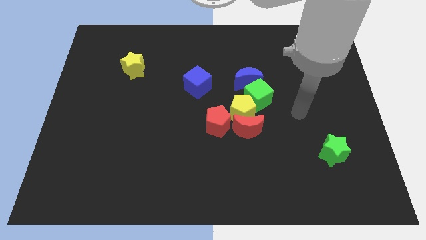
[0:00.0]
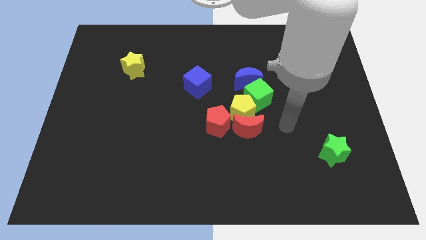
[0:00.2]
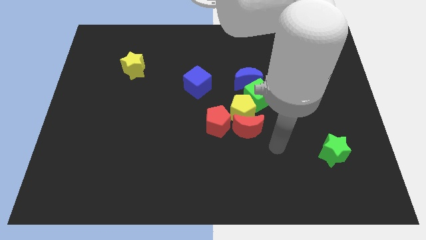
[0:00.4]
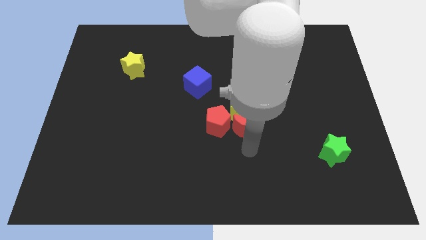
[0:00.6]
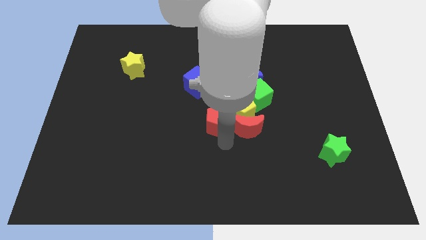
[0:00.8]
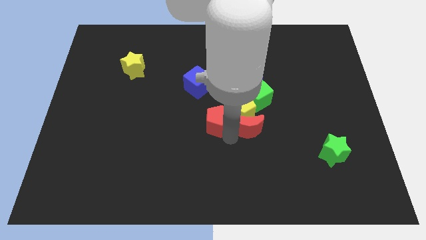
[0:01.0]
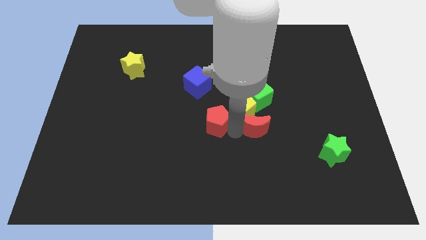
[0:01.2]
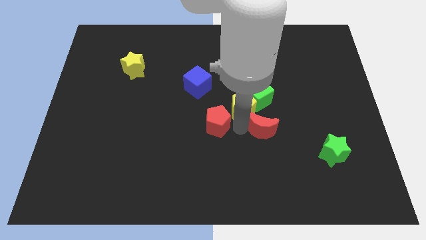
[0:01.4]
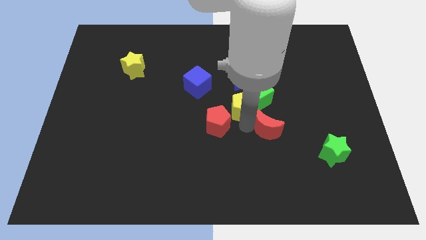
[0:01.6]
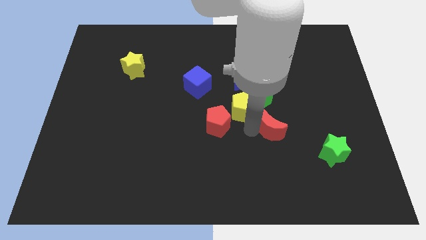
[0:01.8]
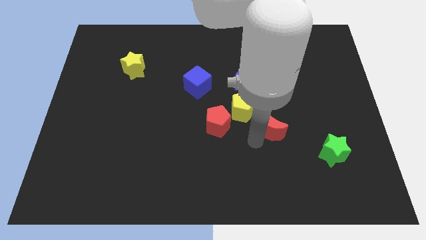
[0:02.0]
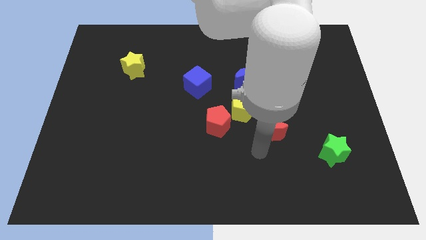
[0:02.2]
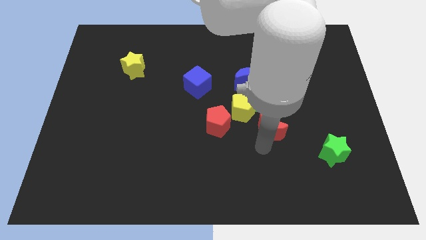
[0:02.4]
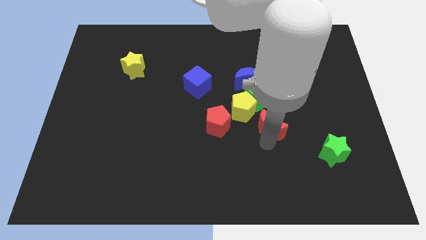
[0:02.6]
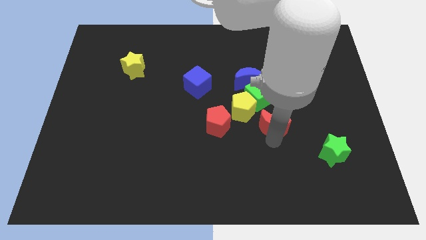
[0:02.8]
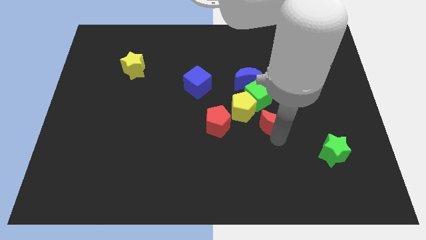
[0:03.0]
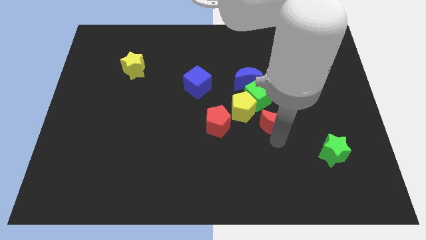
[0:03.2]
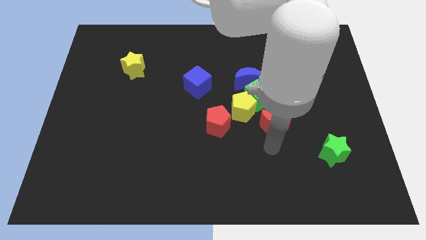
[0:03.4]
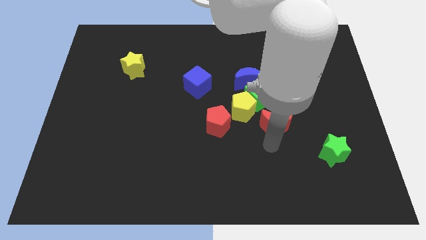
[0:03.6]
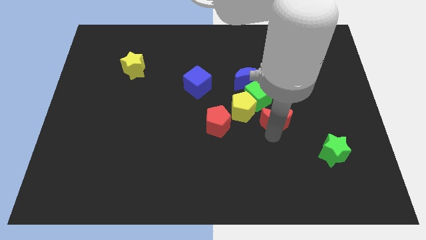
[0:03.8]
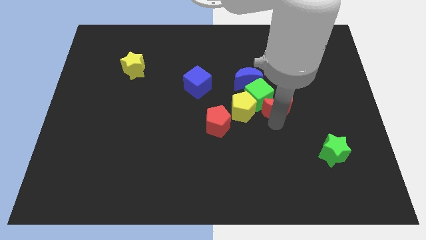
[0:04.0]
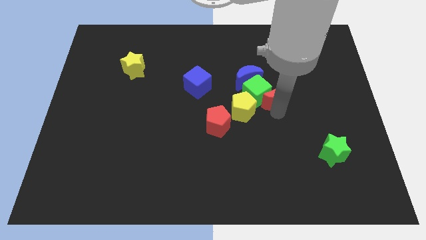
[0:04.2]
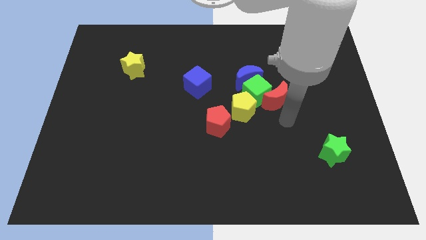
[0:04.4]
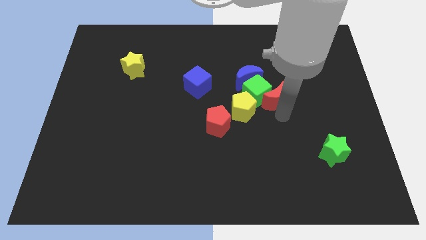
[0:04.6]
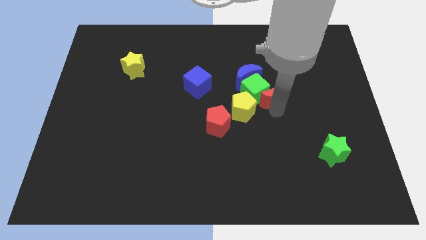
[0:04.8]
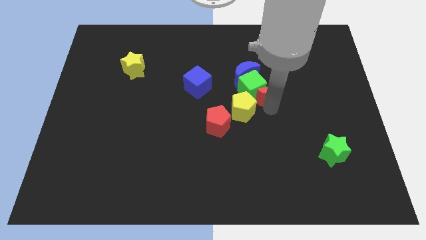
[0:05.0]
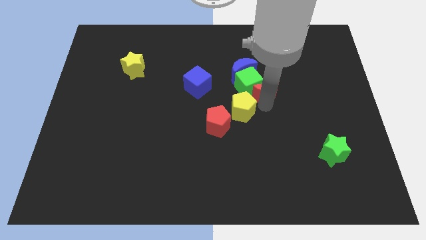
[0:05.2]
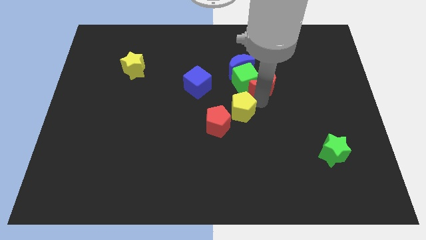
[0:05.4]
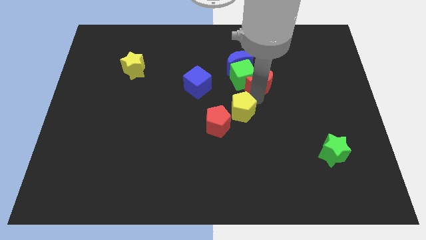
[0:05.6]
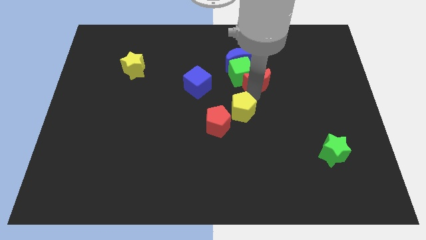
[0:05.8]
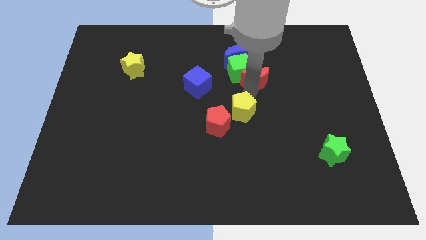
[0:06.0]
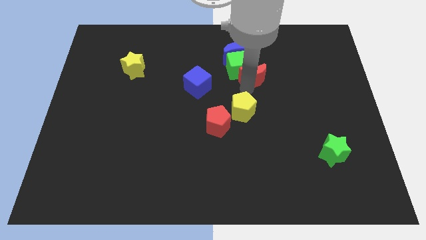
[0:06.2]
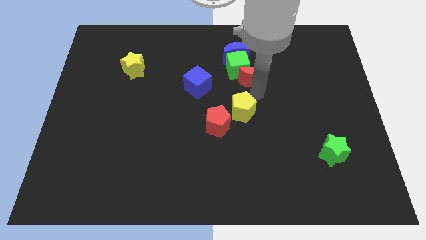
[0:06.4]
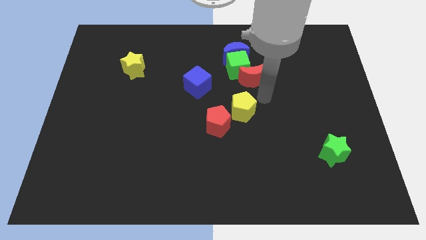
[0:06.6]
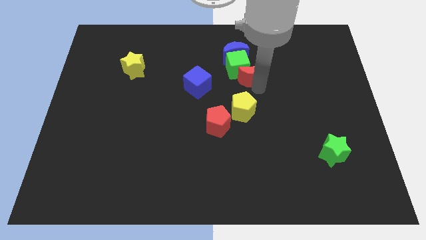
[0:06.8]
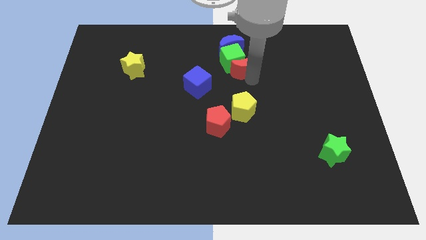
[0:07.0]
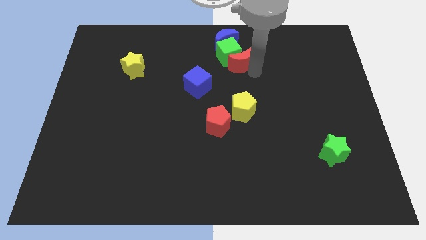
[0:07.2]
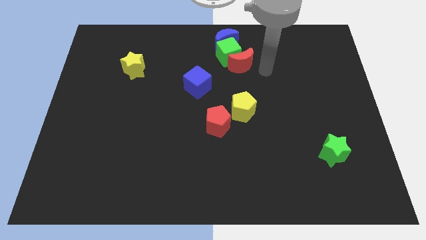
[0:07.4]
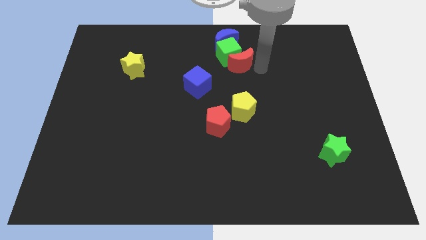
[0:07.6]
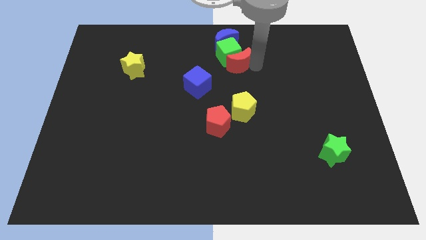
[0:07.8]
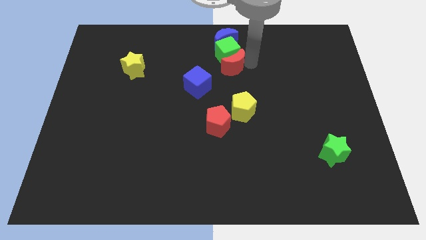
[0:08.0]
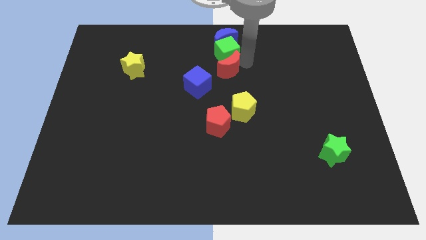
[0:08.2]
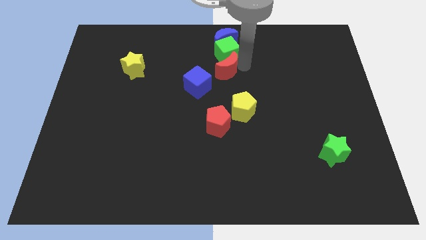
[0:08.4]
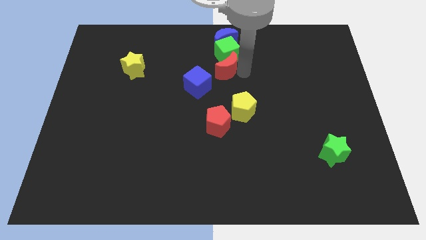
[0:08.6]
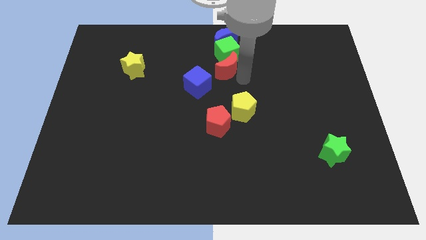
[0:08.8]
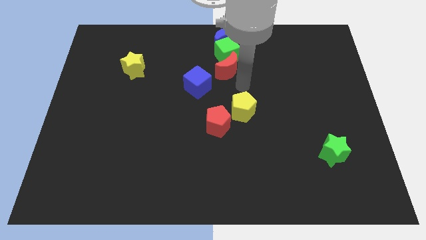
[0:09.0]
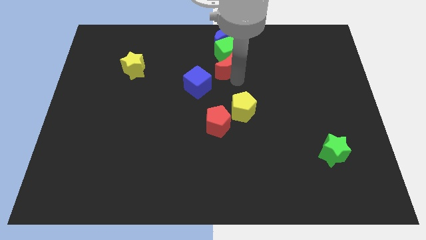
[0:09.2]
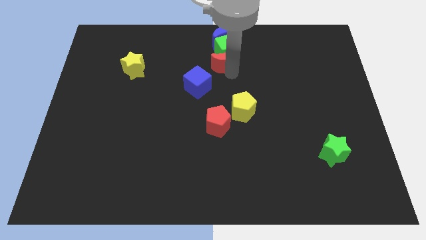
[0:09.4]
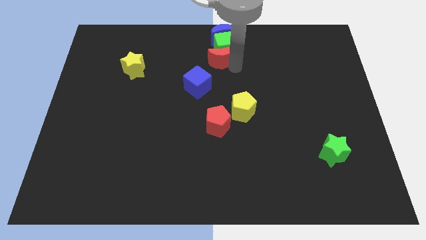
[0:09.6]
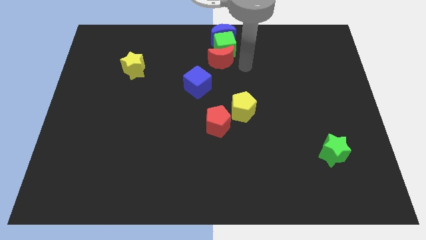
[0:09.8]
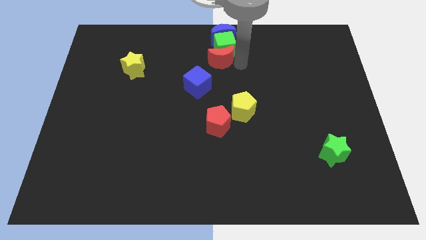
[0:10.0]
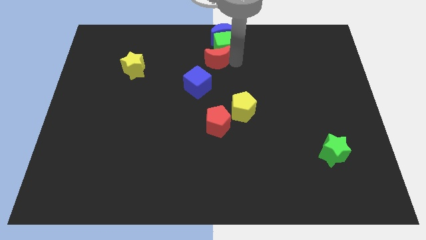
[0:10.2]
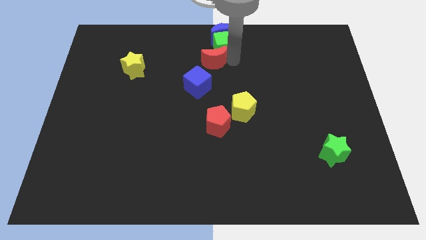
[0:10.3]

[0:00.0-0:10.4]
move the red moon above the blue cube

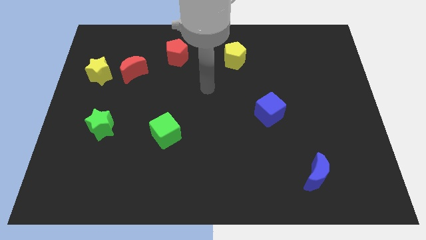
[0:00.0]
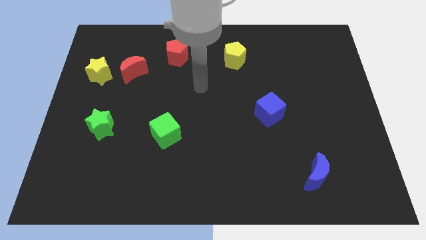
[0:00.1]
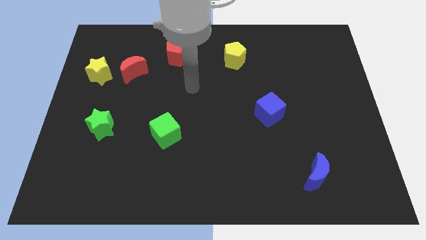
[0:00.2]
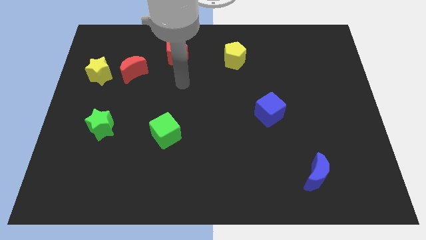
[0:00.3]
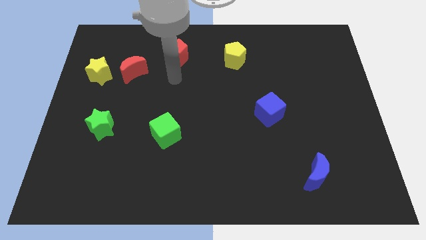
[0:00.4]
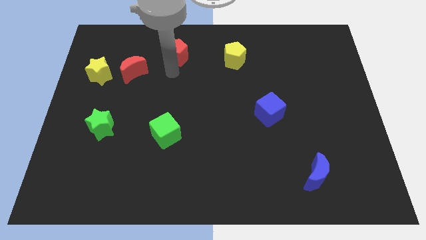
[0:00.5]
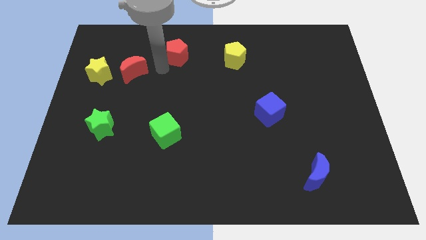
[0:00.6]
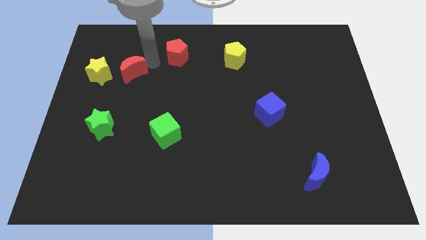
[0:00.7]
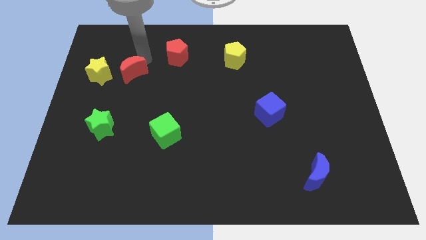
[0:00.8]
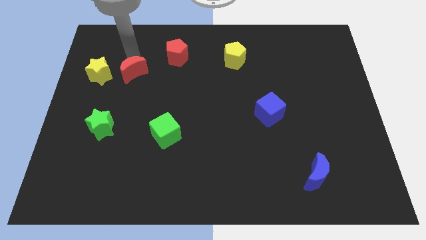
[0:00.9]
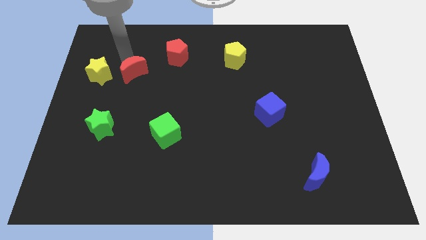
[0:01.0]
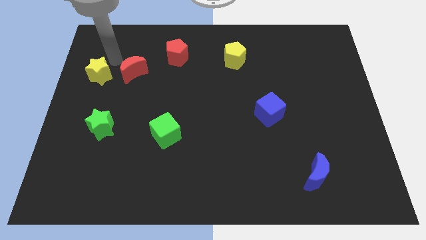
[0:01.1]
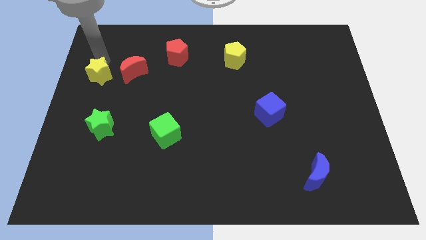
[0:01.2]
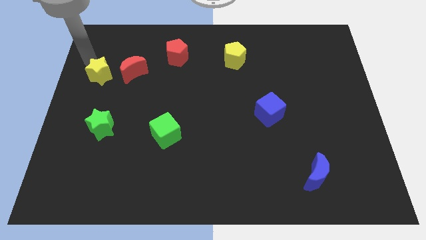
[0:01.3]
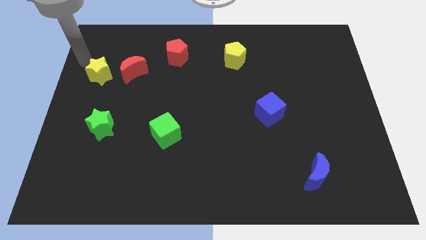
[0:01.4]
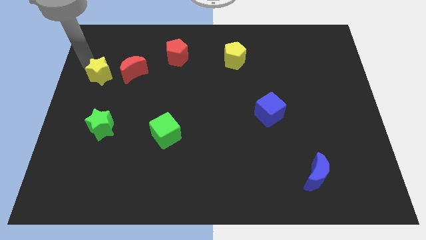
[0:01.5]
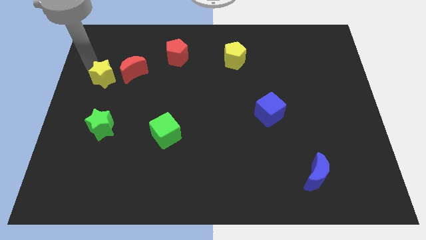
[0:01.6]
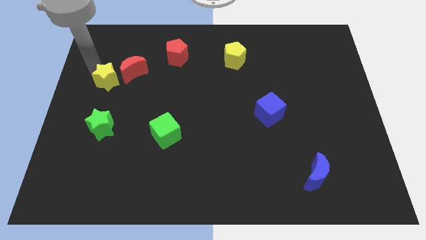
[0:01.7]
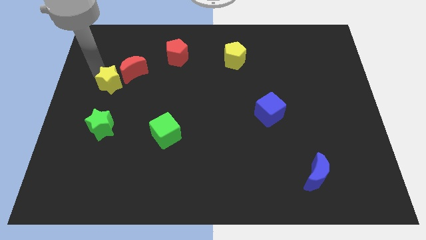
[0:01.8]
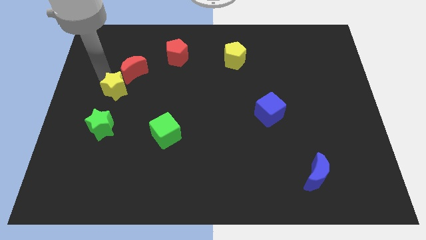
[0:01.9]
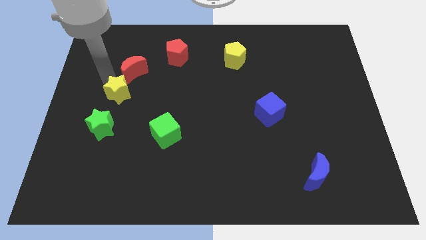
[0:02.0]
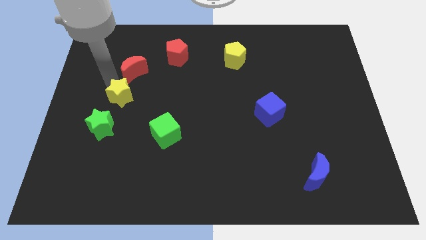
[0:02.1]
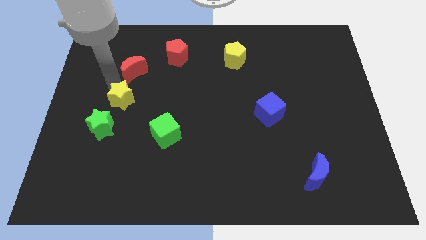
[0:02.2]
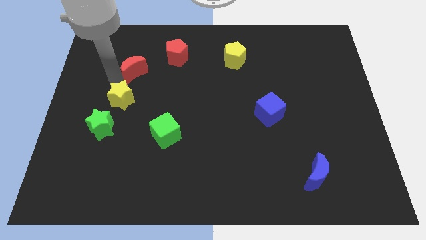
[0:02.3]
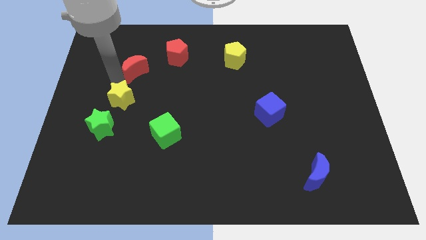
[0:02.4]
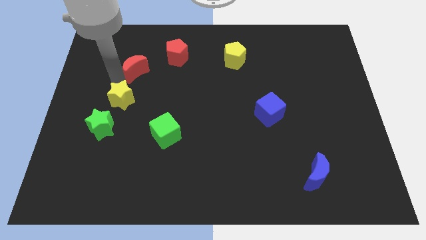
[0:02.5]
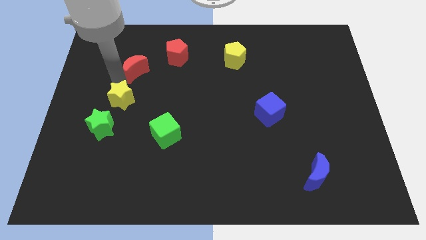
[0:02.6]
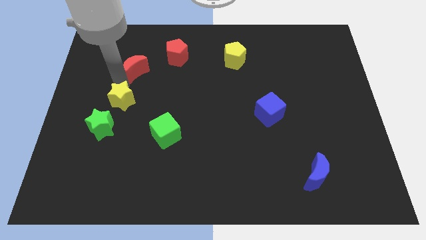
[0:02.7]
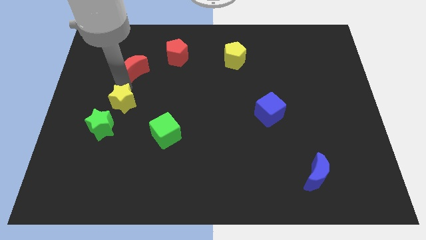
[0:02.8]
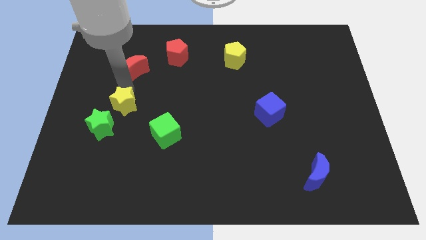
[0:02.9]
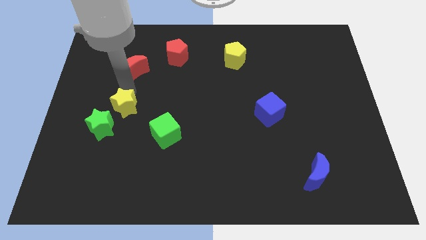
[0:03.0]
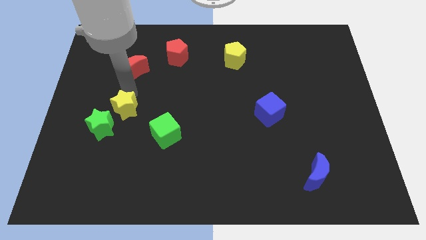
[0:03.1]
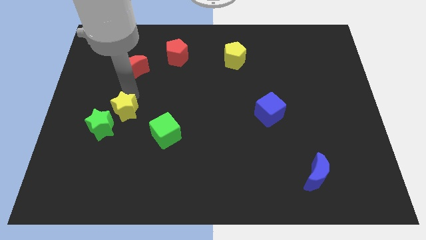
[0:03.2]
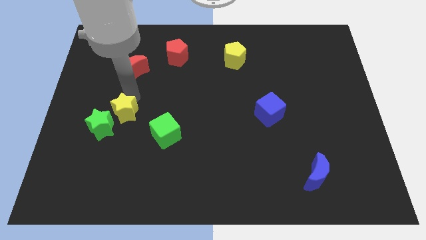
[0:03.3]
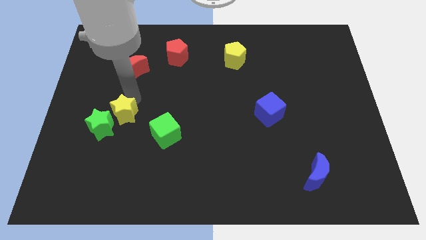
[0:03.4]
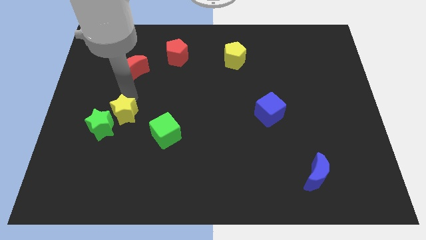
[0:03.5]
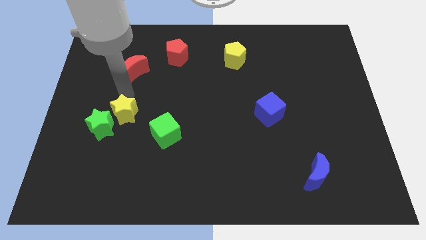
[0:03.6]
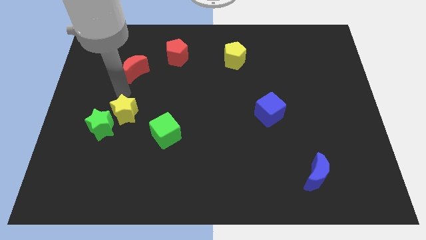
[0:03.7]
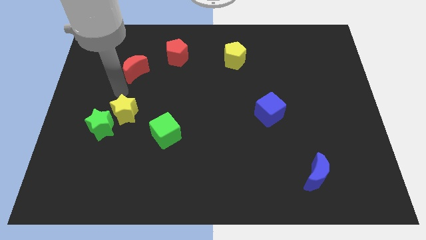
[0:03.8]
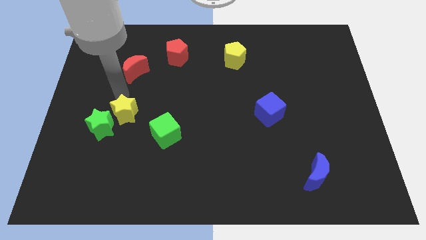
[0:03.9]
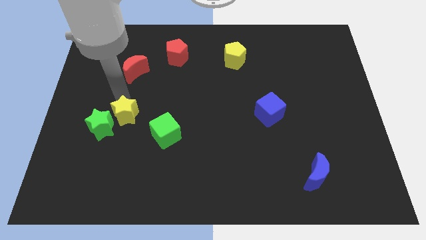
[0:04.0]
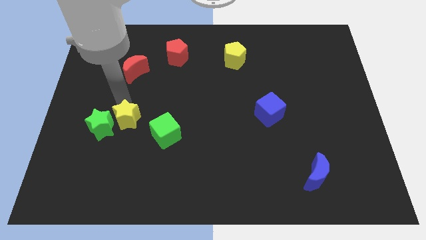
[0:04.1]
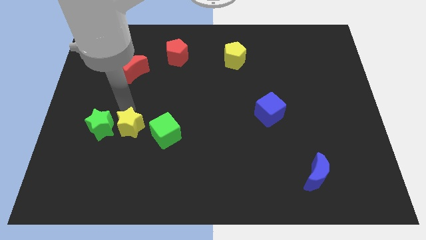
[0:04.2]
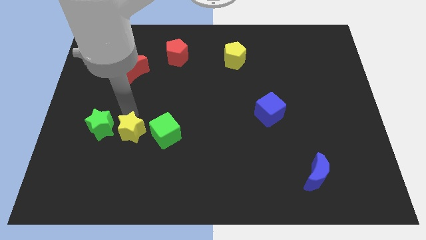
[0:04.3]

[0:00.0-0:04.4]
slide the yellow star to the bottom right of the green star
